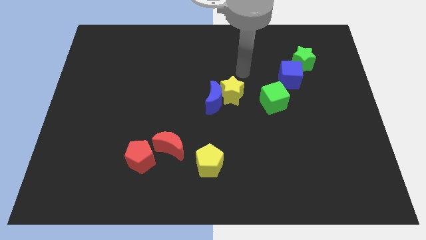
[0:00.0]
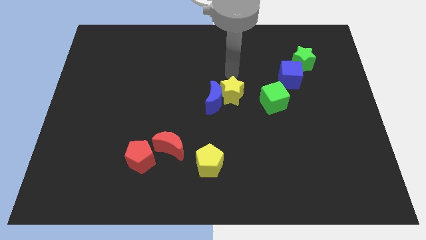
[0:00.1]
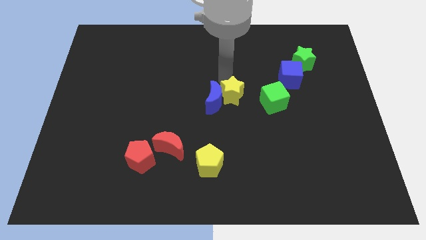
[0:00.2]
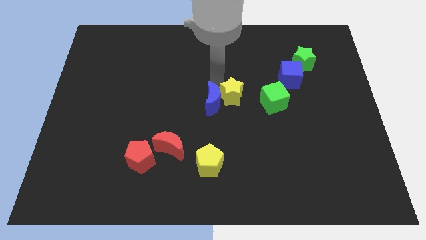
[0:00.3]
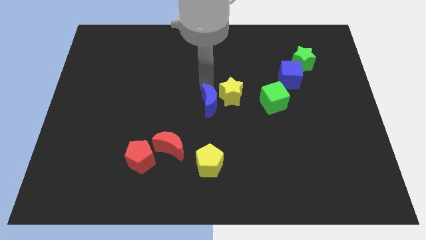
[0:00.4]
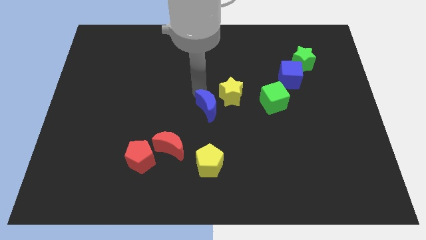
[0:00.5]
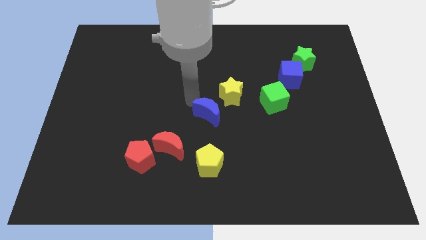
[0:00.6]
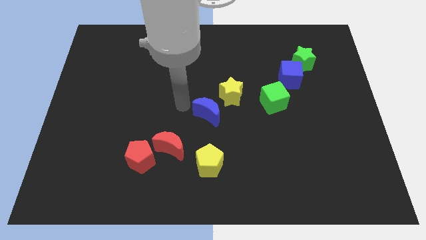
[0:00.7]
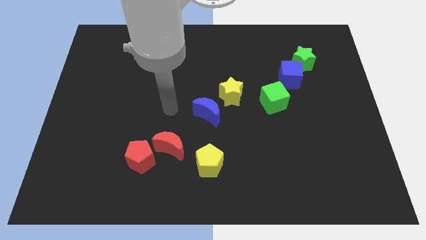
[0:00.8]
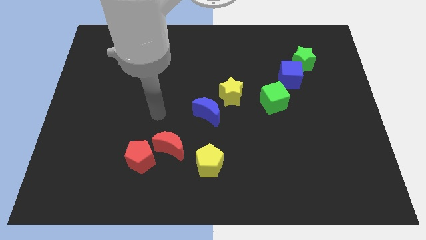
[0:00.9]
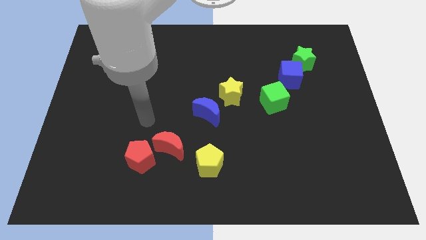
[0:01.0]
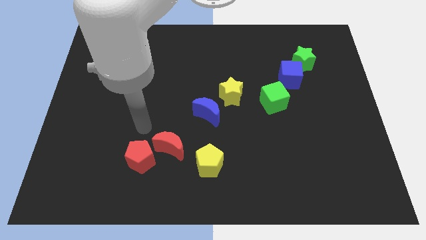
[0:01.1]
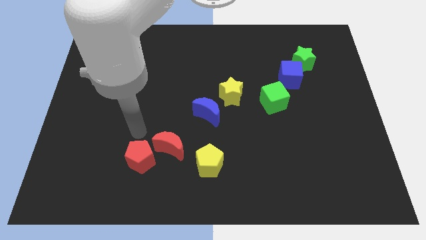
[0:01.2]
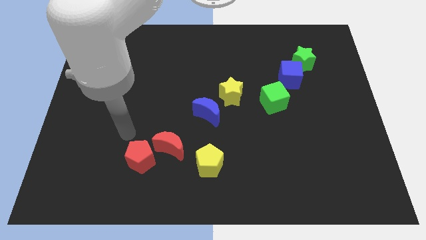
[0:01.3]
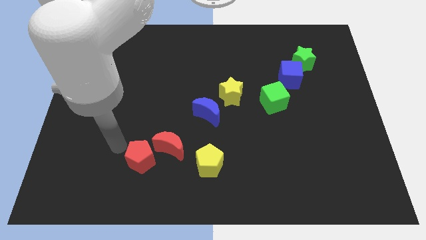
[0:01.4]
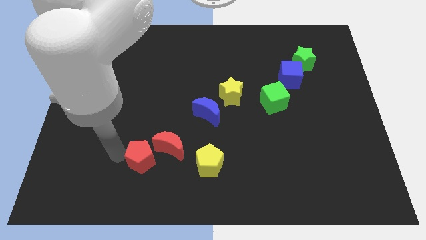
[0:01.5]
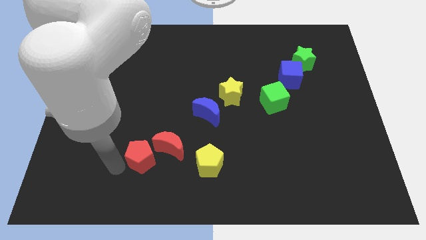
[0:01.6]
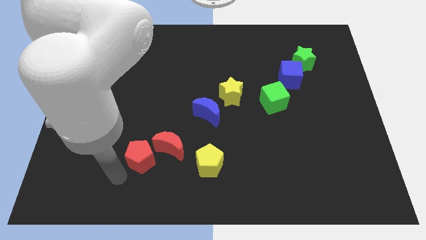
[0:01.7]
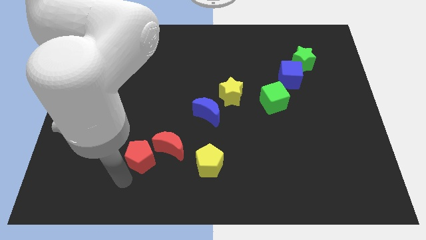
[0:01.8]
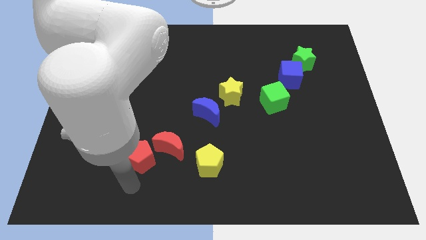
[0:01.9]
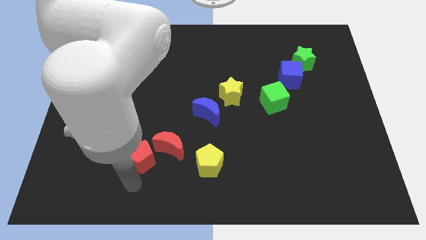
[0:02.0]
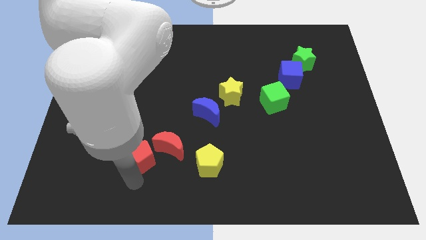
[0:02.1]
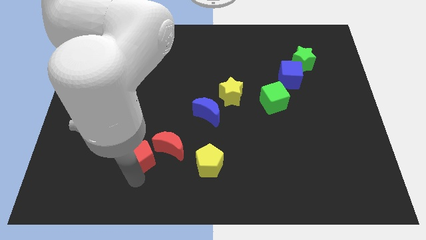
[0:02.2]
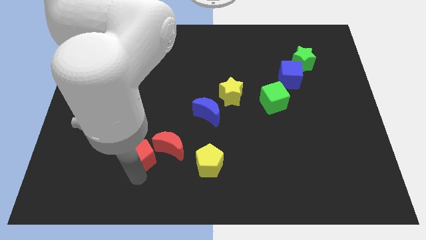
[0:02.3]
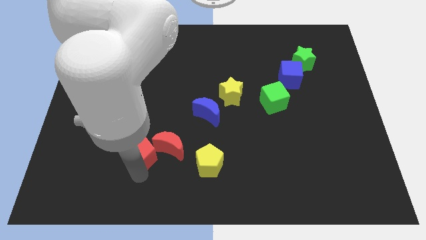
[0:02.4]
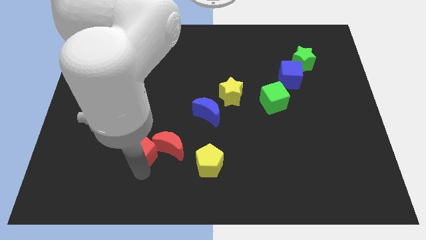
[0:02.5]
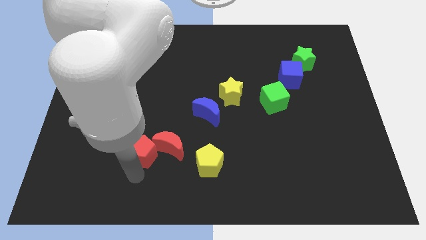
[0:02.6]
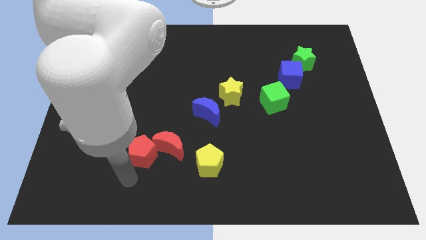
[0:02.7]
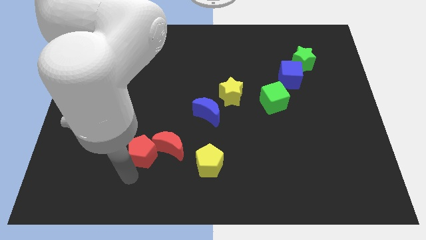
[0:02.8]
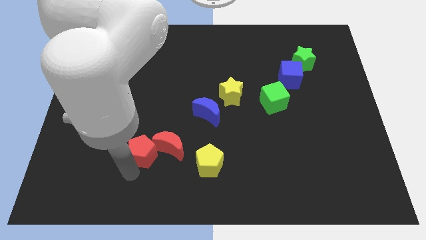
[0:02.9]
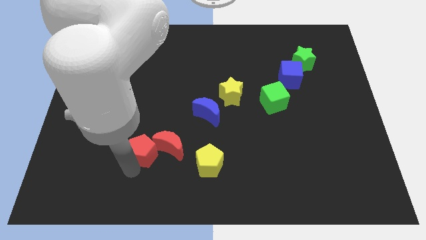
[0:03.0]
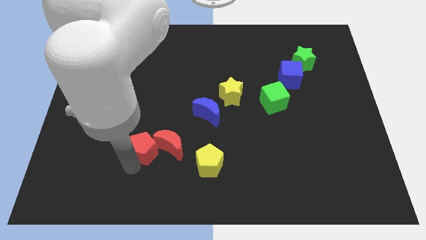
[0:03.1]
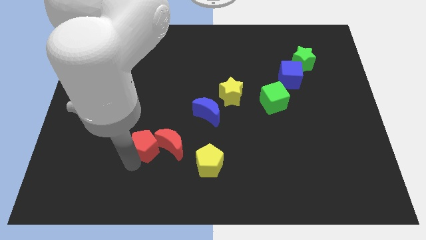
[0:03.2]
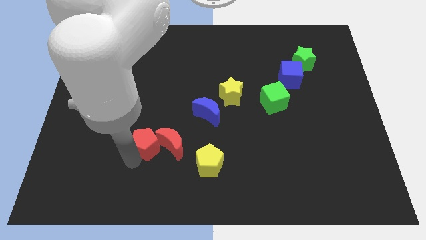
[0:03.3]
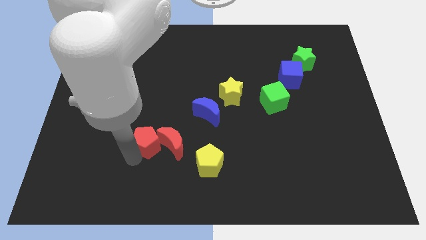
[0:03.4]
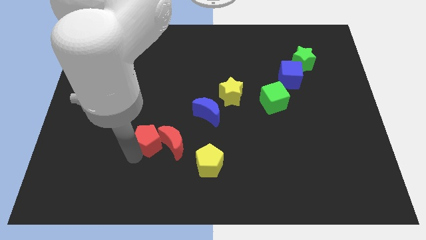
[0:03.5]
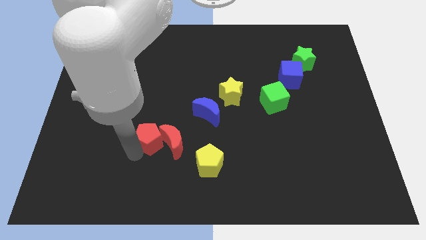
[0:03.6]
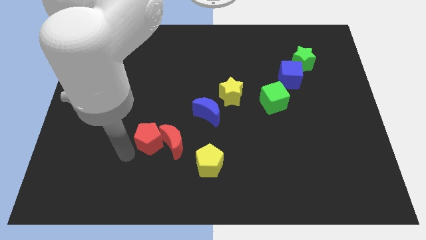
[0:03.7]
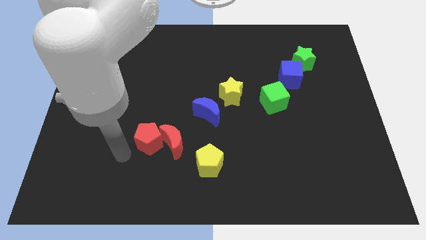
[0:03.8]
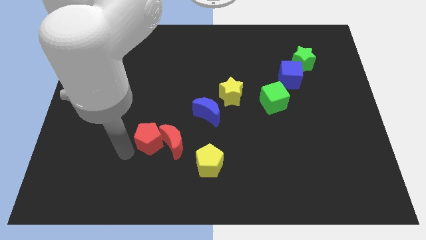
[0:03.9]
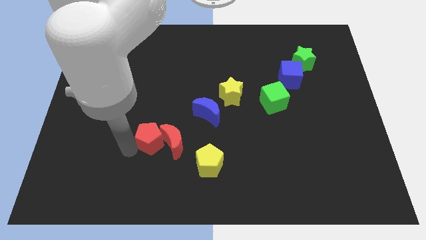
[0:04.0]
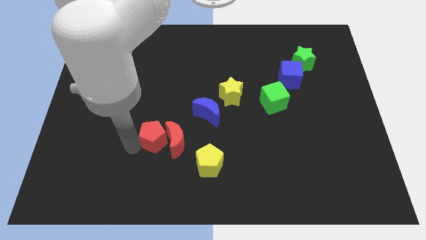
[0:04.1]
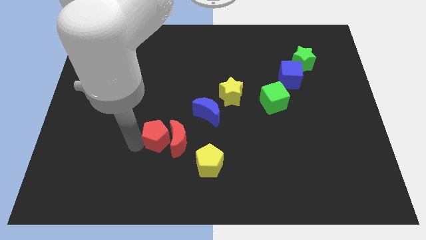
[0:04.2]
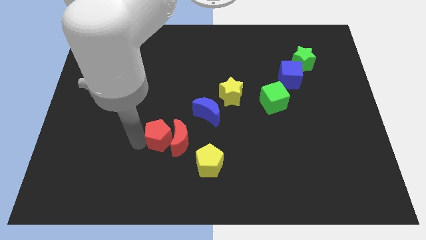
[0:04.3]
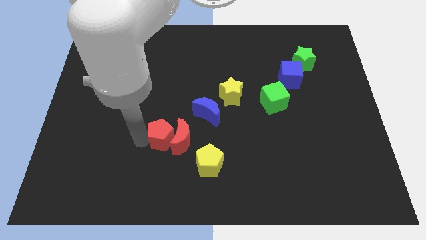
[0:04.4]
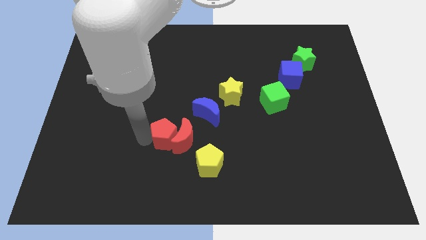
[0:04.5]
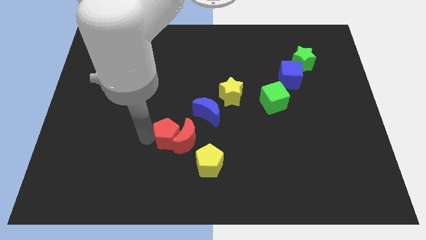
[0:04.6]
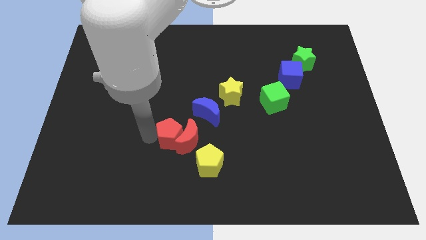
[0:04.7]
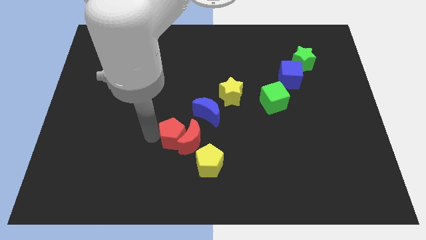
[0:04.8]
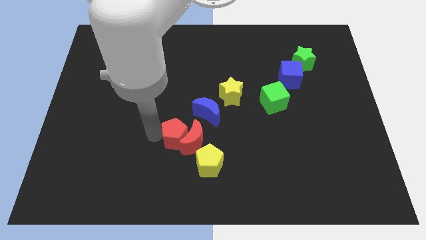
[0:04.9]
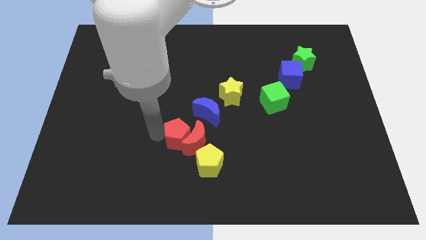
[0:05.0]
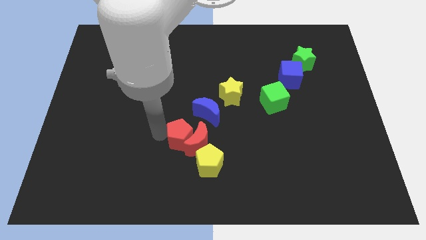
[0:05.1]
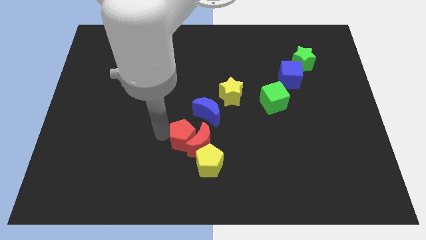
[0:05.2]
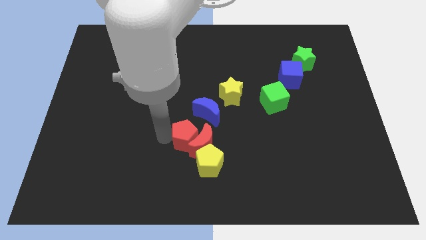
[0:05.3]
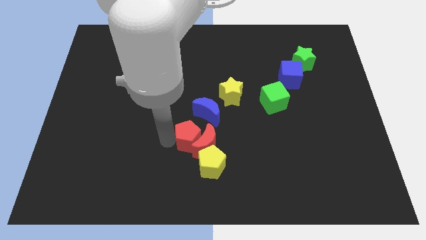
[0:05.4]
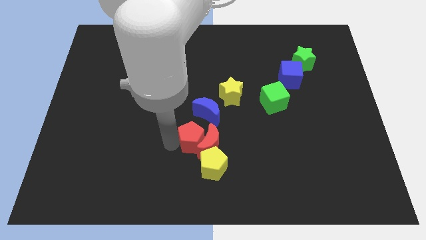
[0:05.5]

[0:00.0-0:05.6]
move the red pentagon to the top side of the yellow pentagon

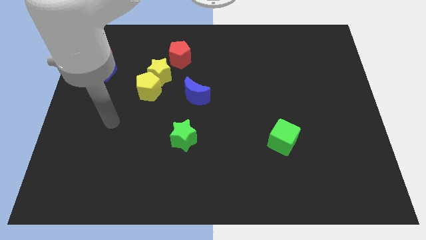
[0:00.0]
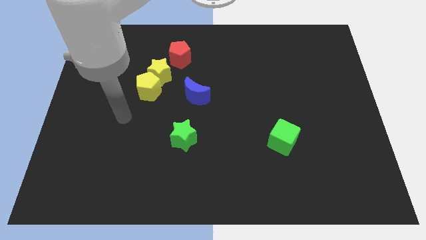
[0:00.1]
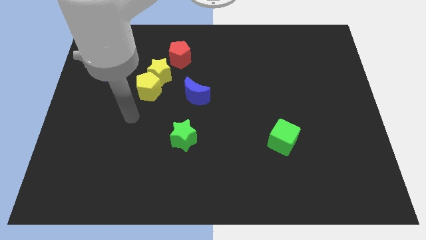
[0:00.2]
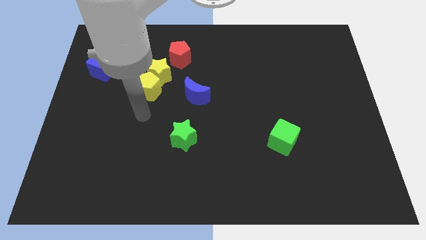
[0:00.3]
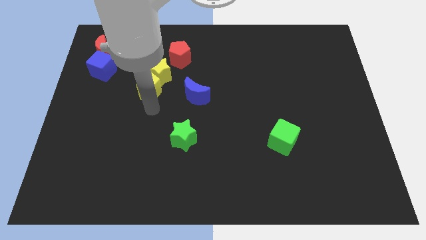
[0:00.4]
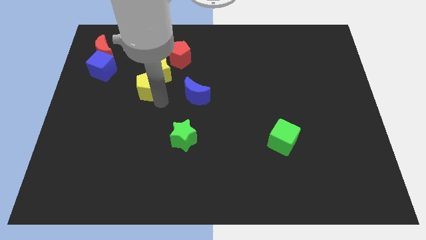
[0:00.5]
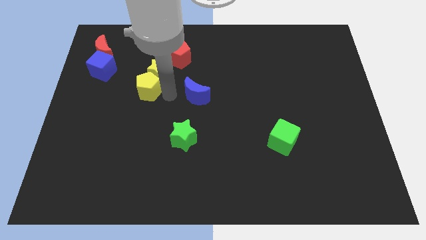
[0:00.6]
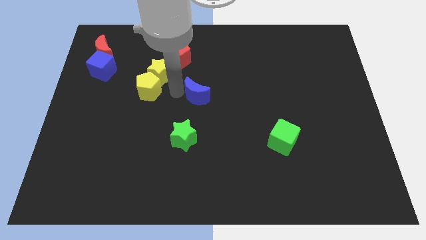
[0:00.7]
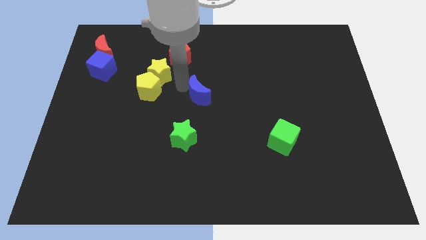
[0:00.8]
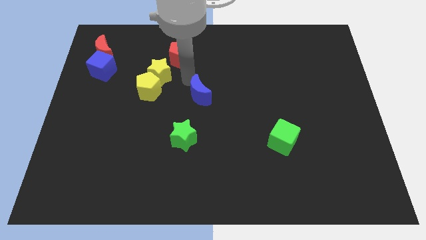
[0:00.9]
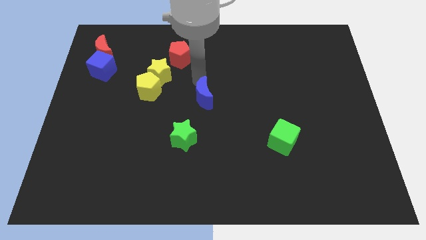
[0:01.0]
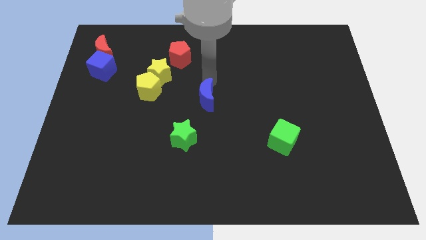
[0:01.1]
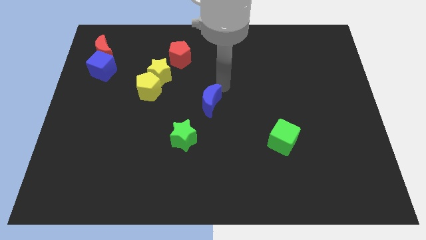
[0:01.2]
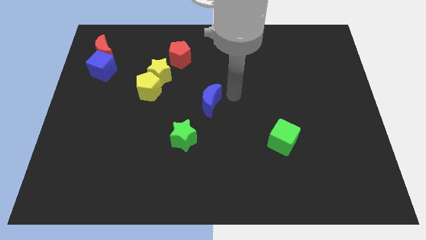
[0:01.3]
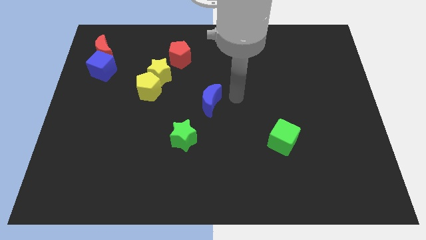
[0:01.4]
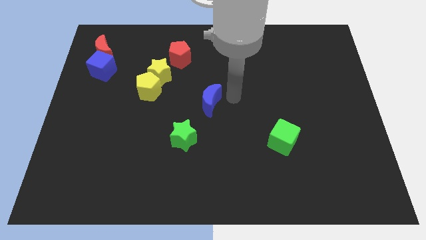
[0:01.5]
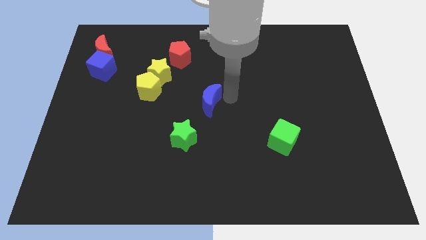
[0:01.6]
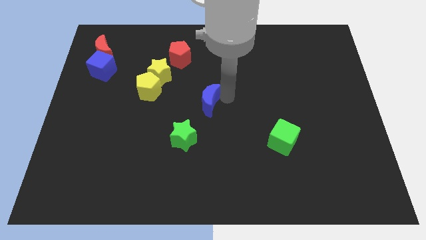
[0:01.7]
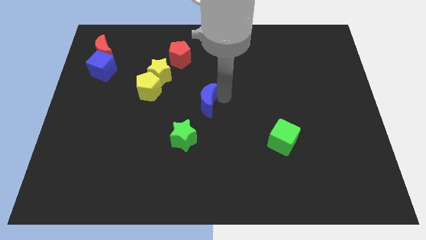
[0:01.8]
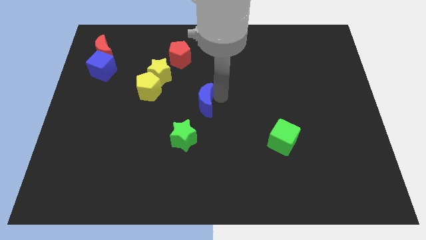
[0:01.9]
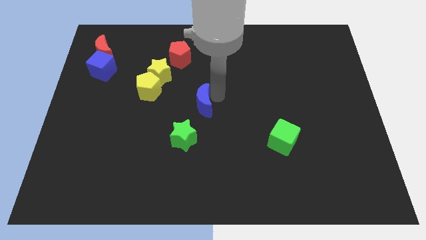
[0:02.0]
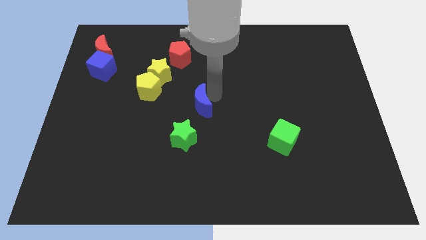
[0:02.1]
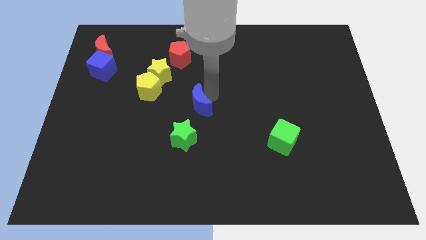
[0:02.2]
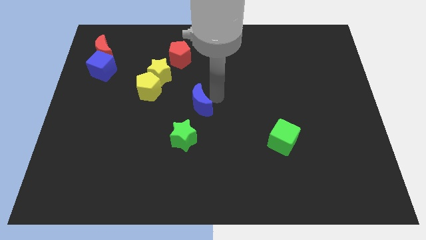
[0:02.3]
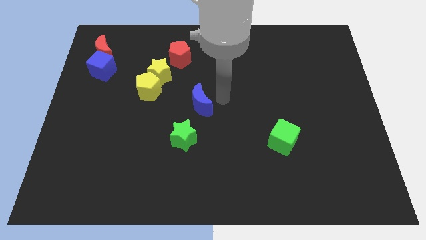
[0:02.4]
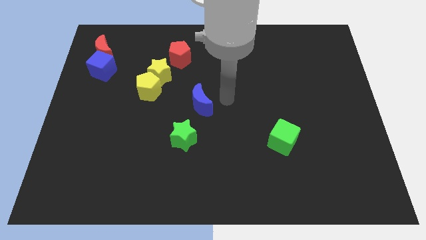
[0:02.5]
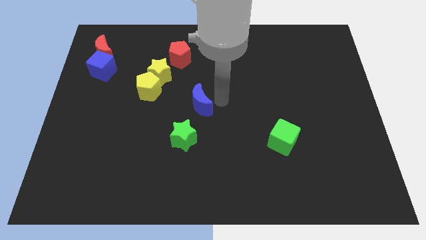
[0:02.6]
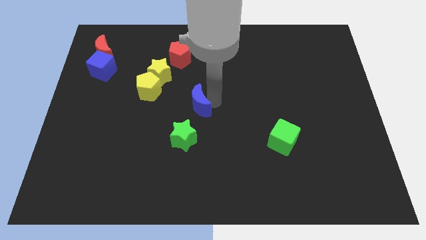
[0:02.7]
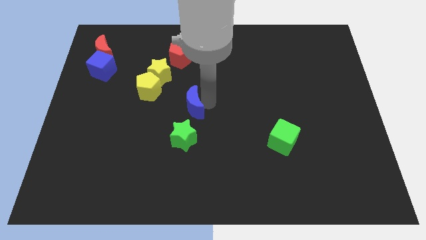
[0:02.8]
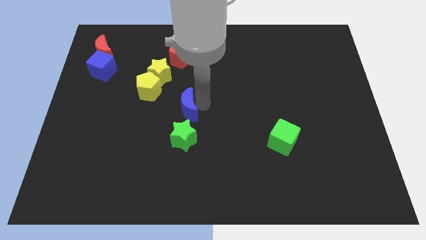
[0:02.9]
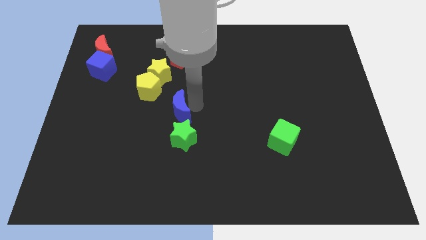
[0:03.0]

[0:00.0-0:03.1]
move the blue moon to the top left side of the green star
